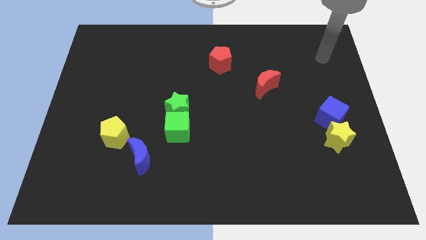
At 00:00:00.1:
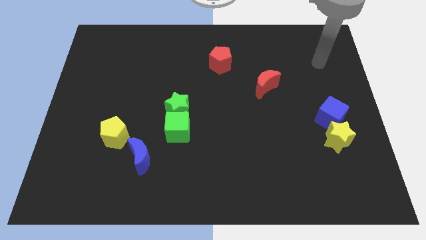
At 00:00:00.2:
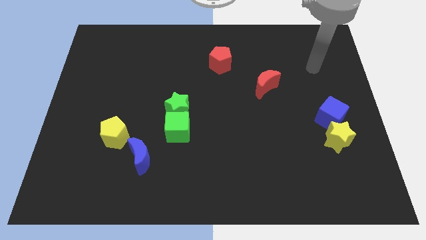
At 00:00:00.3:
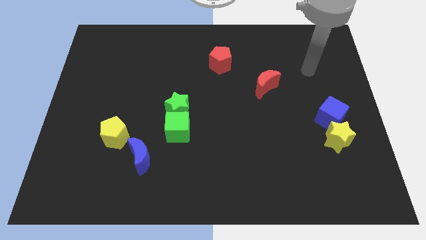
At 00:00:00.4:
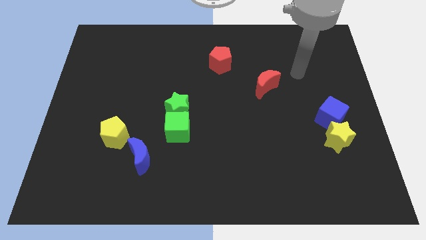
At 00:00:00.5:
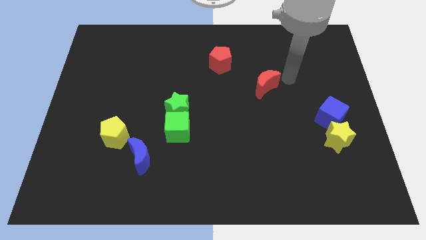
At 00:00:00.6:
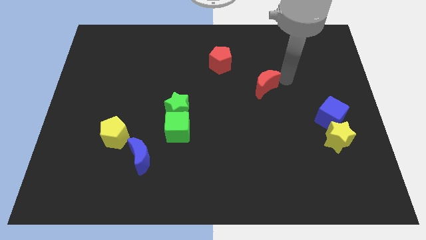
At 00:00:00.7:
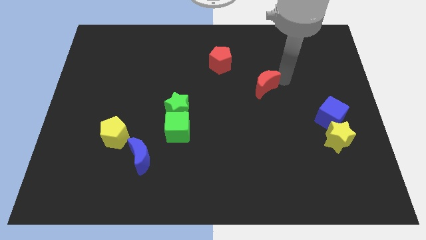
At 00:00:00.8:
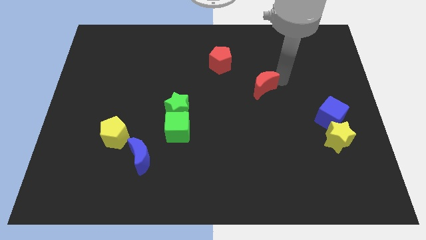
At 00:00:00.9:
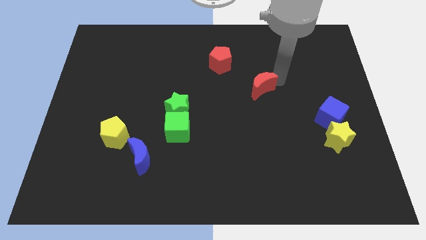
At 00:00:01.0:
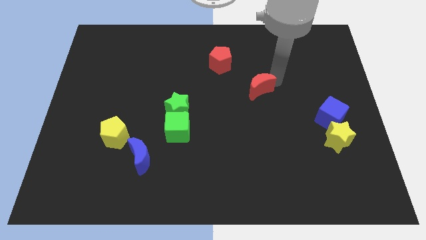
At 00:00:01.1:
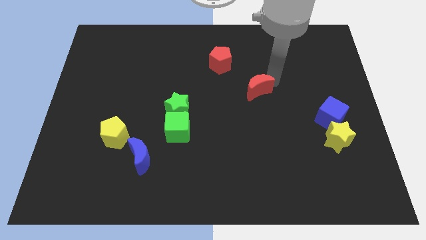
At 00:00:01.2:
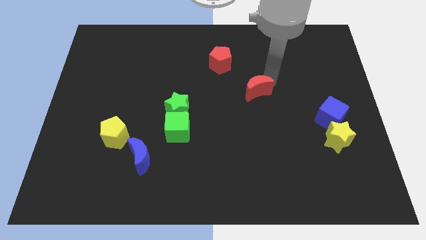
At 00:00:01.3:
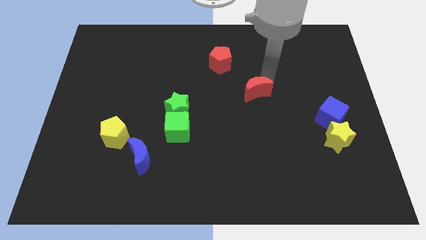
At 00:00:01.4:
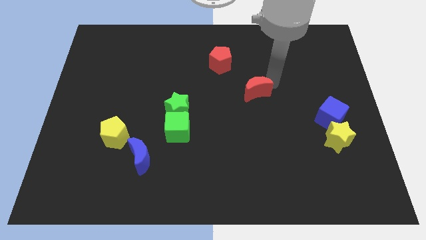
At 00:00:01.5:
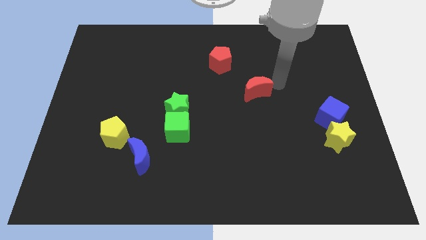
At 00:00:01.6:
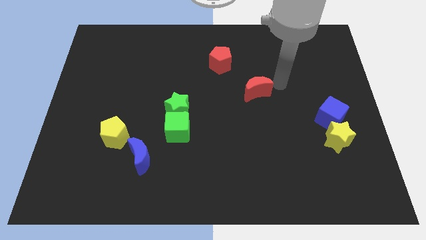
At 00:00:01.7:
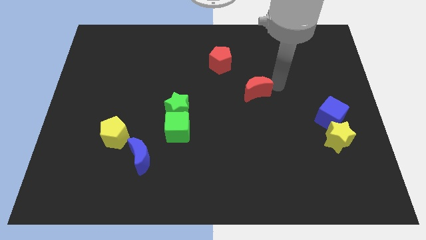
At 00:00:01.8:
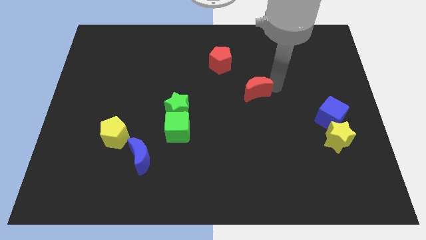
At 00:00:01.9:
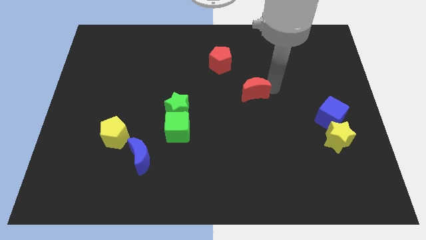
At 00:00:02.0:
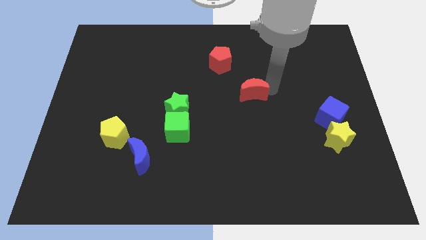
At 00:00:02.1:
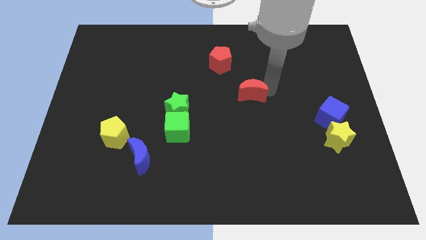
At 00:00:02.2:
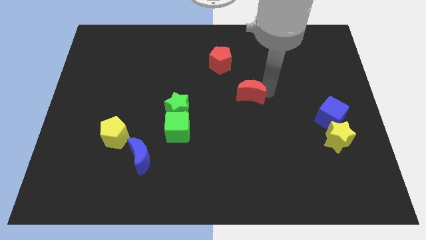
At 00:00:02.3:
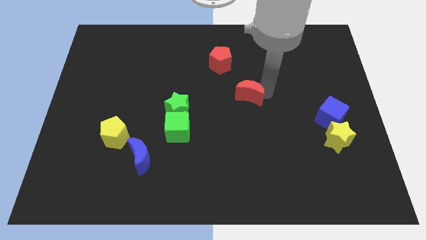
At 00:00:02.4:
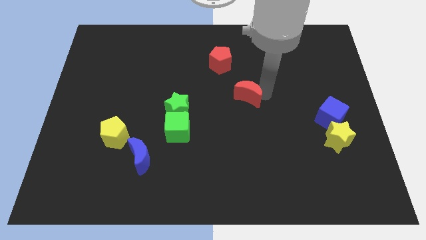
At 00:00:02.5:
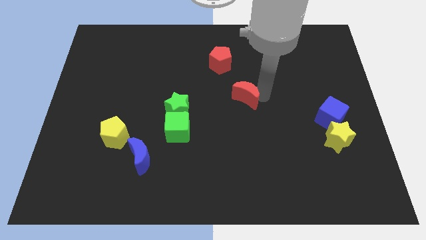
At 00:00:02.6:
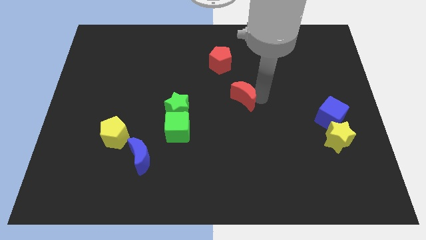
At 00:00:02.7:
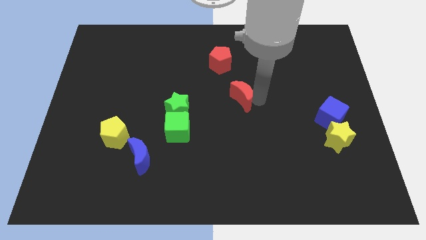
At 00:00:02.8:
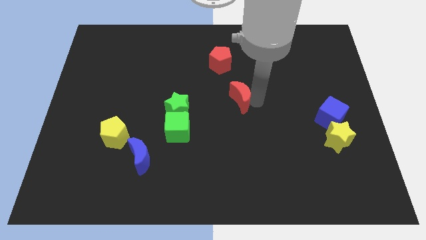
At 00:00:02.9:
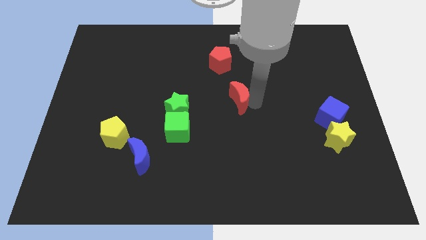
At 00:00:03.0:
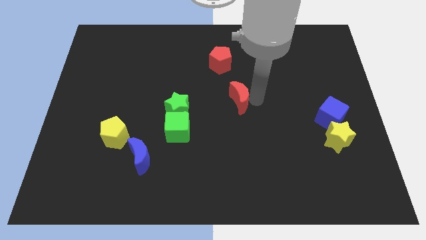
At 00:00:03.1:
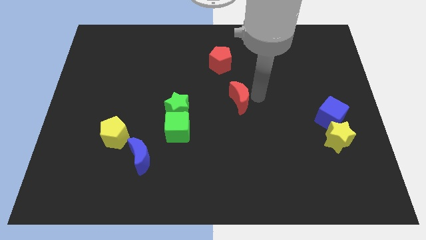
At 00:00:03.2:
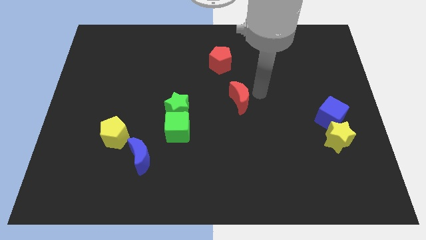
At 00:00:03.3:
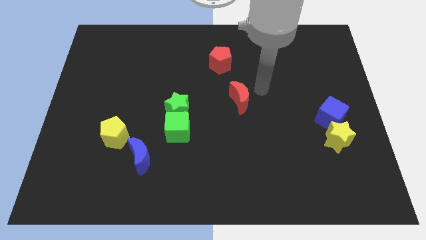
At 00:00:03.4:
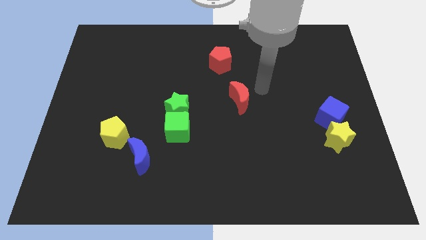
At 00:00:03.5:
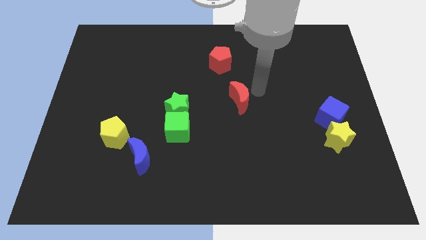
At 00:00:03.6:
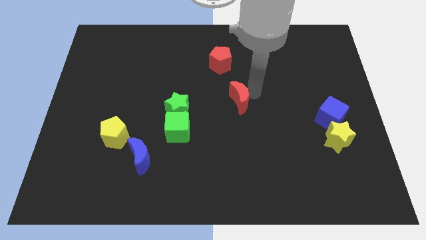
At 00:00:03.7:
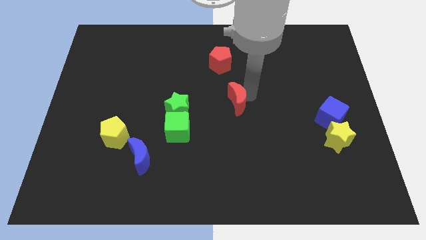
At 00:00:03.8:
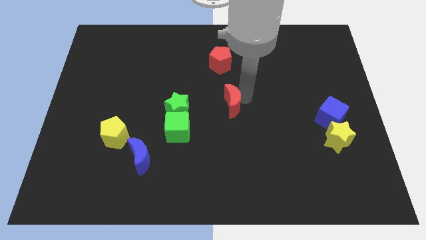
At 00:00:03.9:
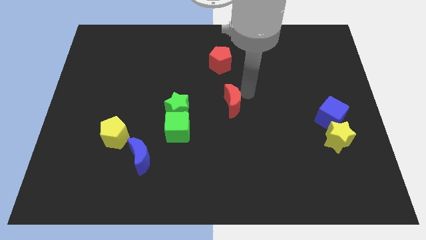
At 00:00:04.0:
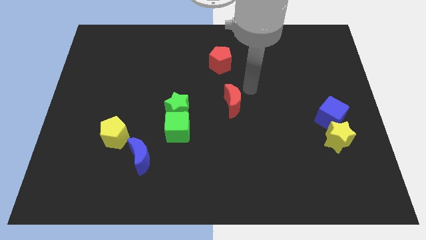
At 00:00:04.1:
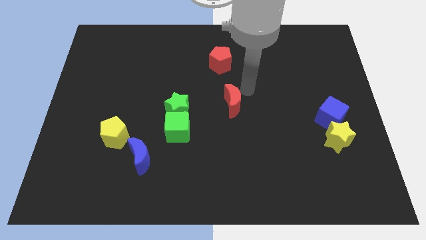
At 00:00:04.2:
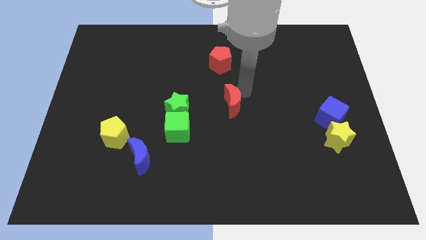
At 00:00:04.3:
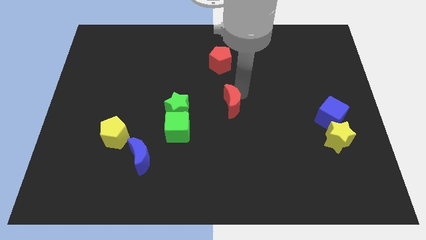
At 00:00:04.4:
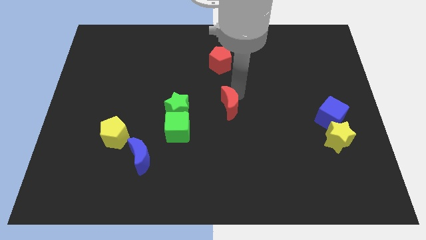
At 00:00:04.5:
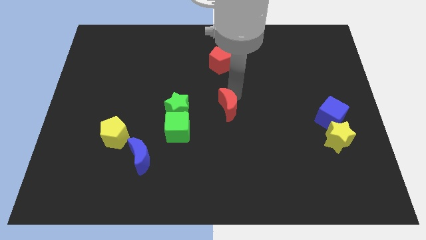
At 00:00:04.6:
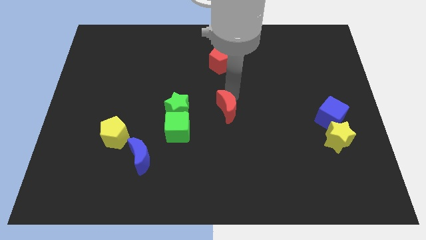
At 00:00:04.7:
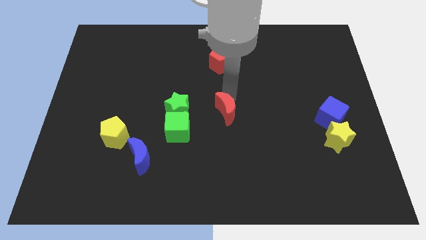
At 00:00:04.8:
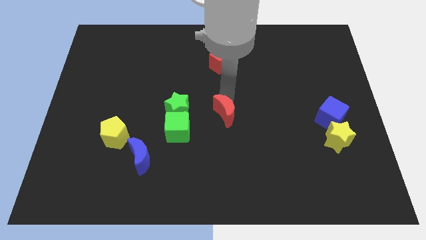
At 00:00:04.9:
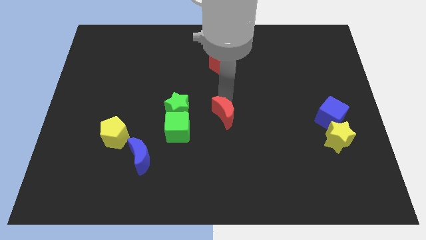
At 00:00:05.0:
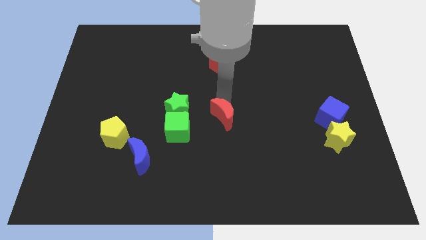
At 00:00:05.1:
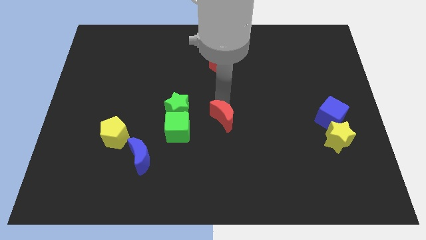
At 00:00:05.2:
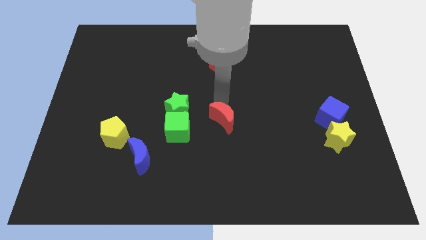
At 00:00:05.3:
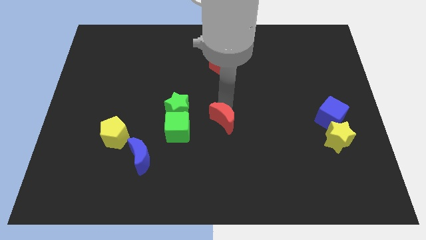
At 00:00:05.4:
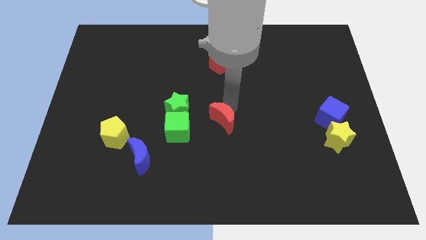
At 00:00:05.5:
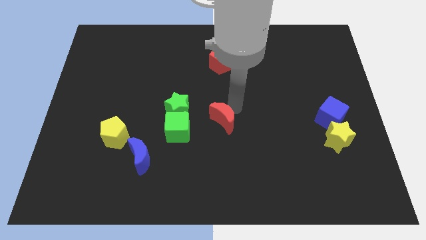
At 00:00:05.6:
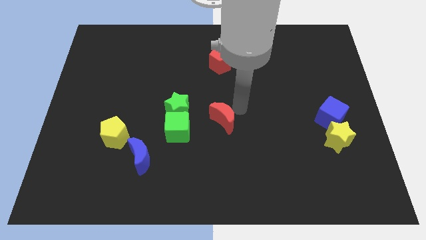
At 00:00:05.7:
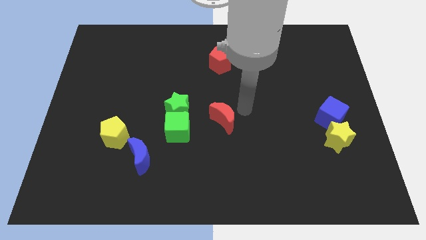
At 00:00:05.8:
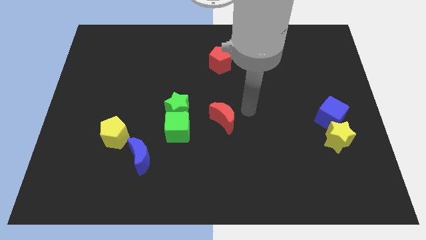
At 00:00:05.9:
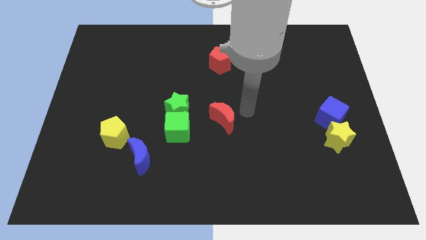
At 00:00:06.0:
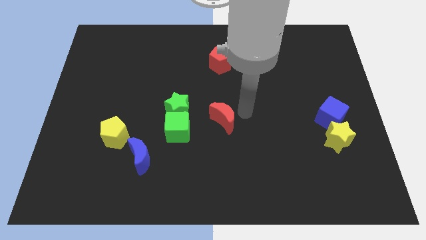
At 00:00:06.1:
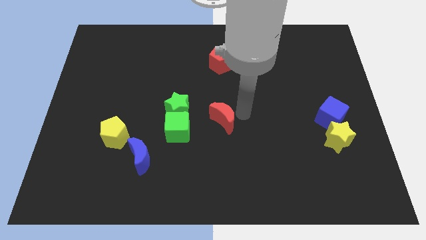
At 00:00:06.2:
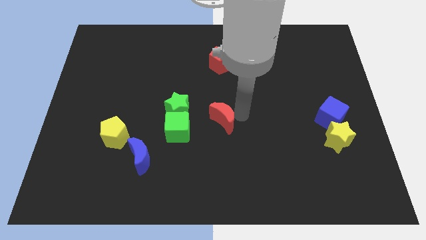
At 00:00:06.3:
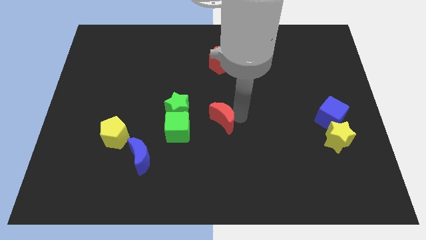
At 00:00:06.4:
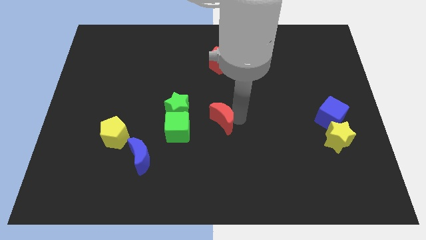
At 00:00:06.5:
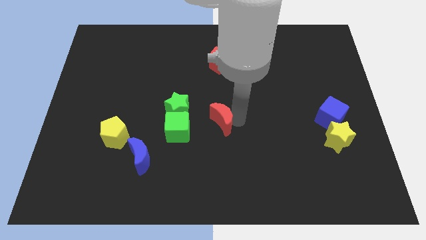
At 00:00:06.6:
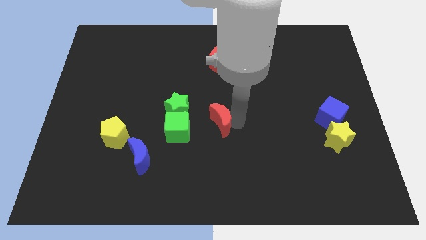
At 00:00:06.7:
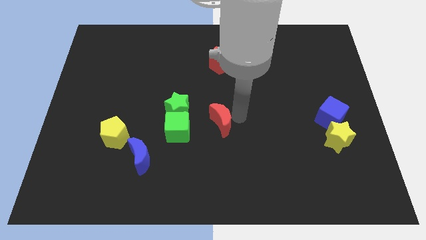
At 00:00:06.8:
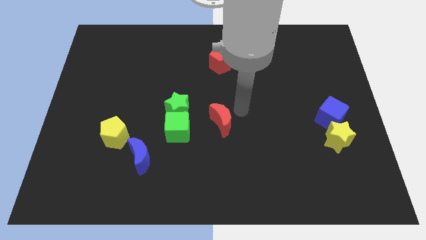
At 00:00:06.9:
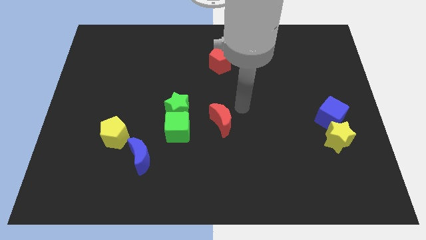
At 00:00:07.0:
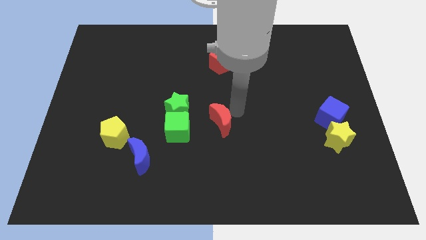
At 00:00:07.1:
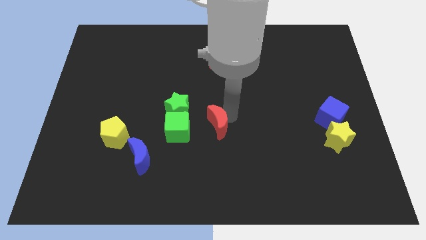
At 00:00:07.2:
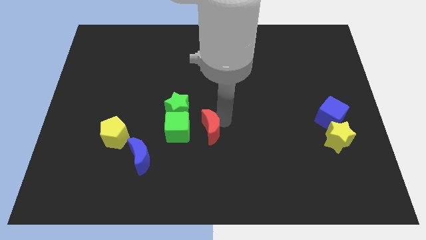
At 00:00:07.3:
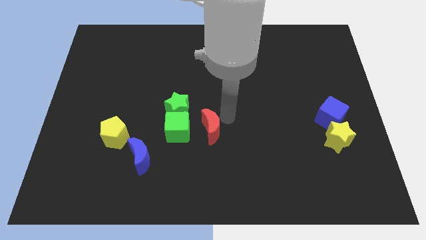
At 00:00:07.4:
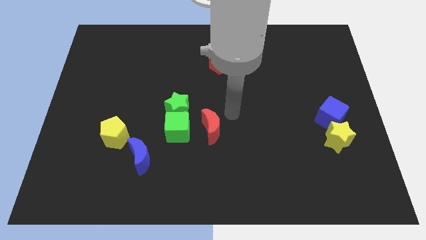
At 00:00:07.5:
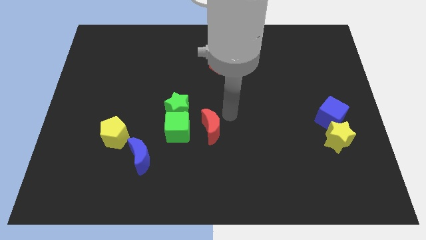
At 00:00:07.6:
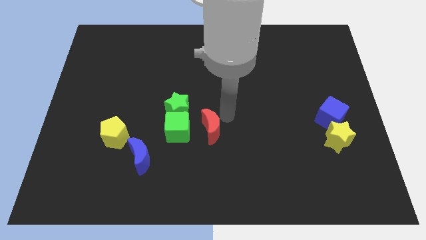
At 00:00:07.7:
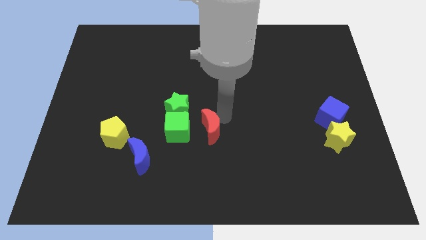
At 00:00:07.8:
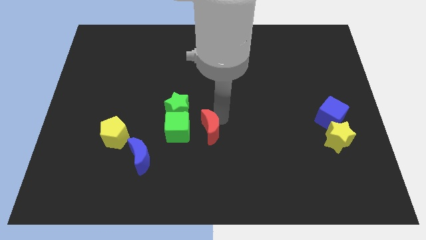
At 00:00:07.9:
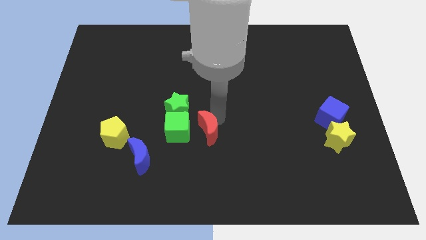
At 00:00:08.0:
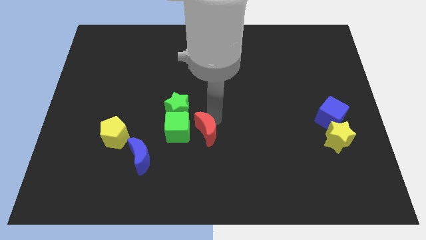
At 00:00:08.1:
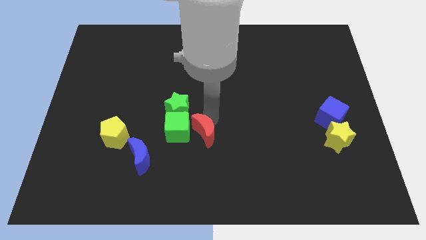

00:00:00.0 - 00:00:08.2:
slide the red moon downwards and left diagonally
